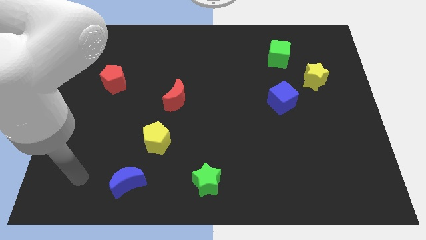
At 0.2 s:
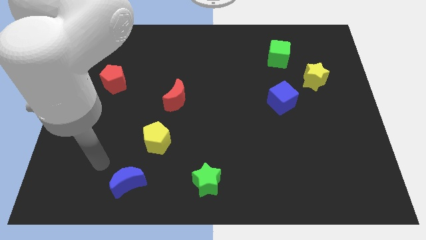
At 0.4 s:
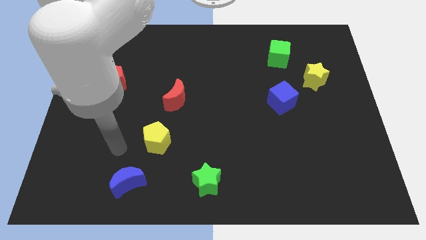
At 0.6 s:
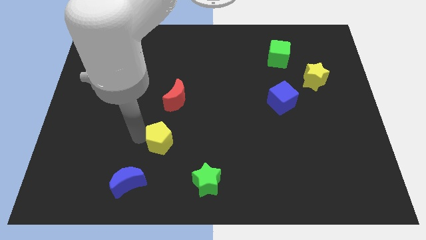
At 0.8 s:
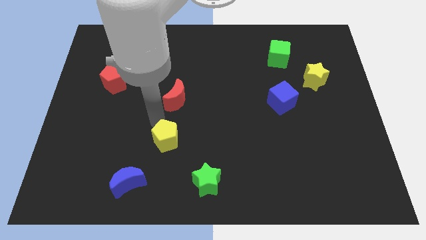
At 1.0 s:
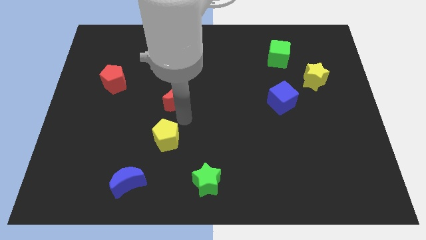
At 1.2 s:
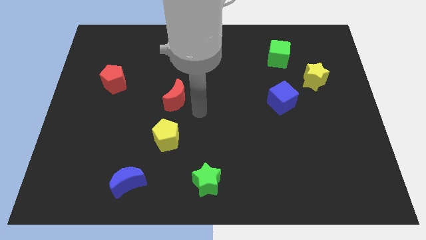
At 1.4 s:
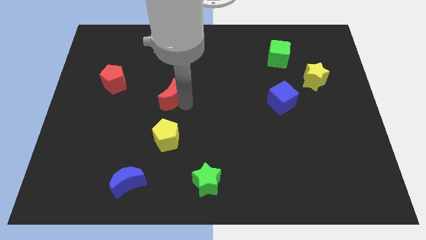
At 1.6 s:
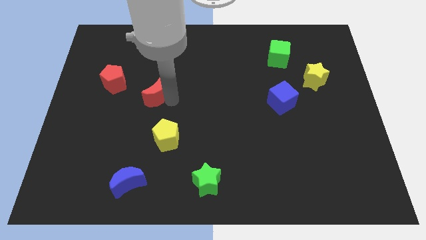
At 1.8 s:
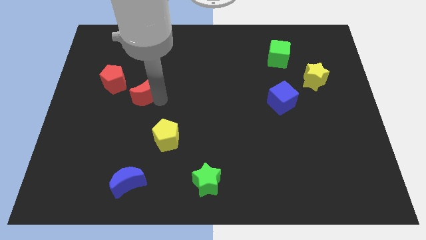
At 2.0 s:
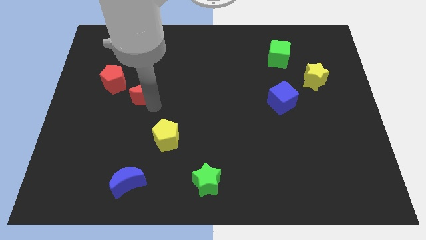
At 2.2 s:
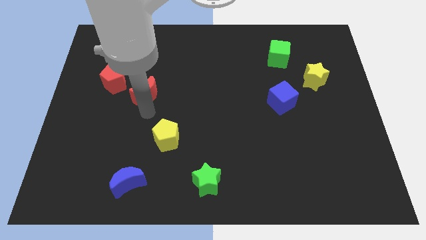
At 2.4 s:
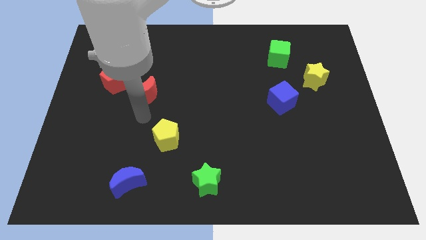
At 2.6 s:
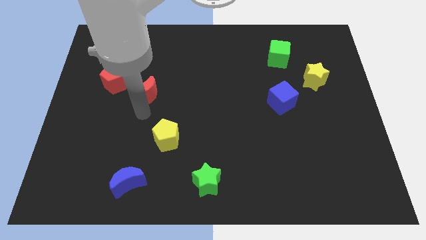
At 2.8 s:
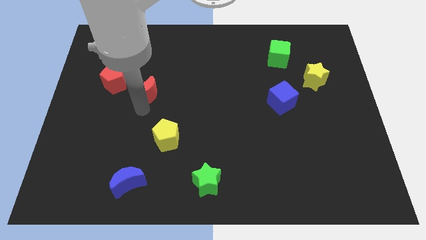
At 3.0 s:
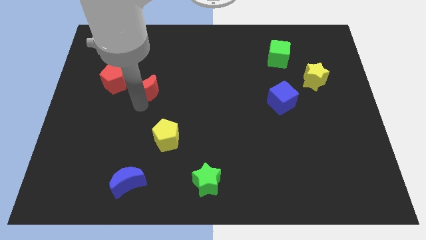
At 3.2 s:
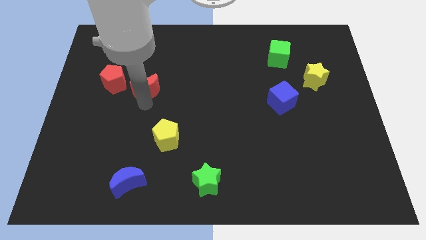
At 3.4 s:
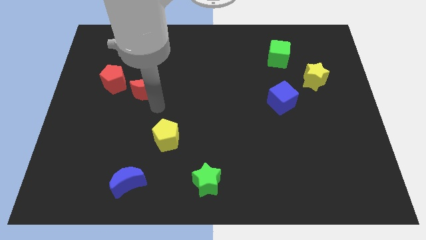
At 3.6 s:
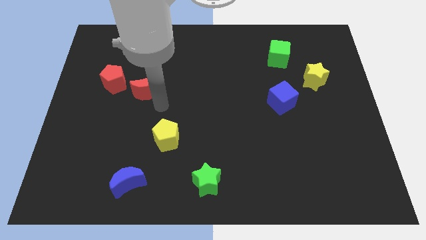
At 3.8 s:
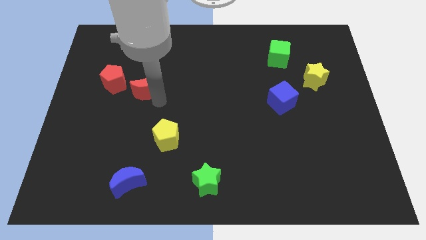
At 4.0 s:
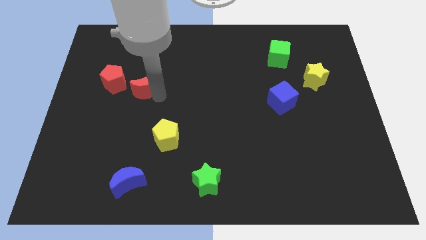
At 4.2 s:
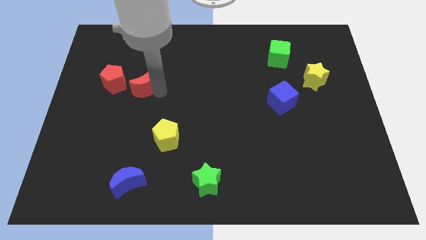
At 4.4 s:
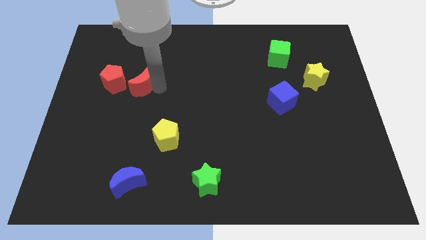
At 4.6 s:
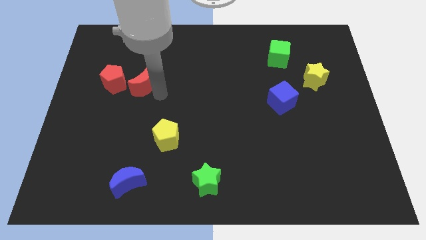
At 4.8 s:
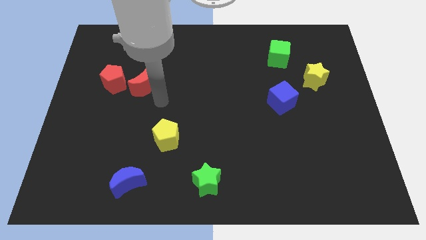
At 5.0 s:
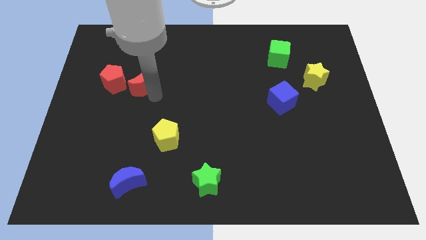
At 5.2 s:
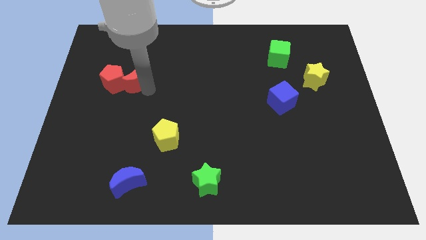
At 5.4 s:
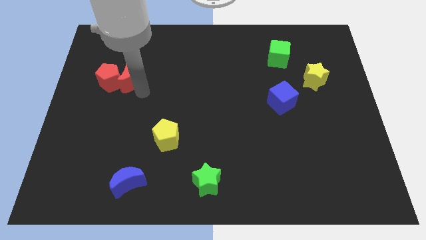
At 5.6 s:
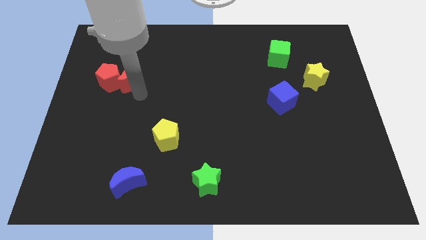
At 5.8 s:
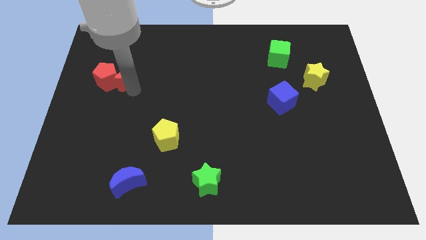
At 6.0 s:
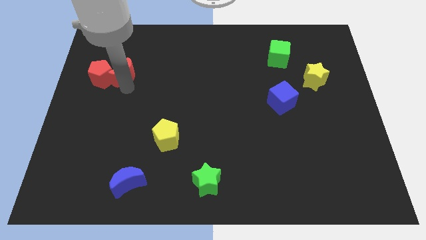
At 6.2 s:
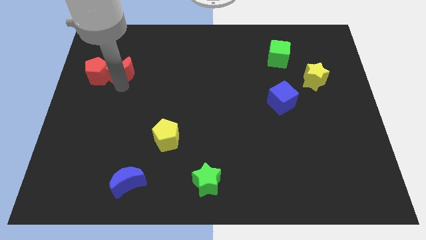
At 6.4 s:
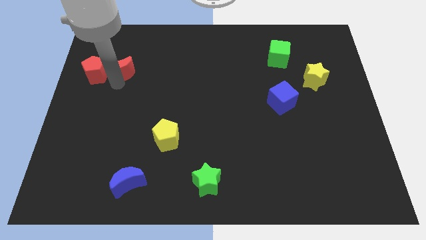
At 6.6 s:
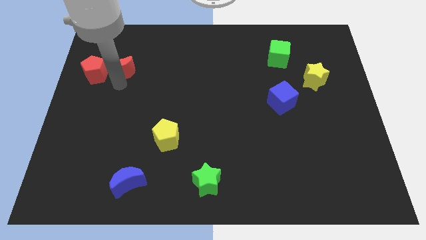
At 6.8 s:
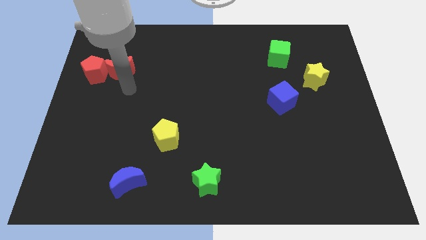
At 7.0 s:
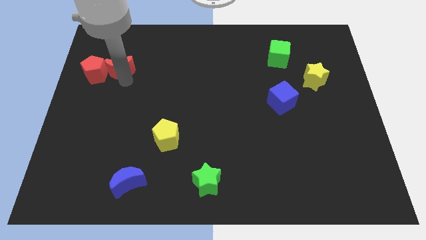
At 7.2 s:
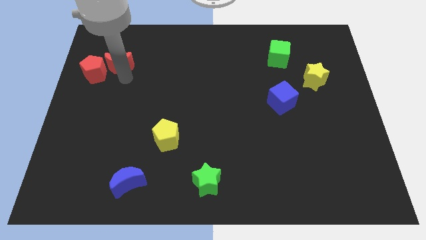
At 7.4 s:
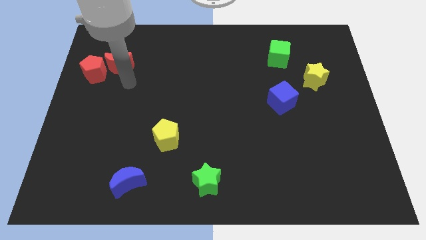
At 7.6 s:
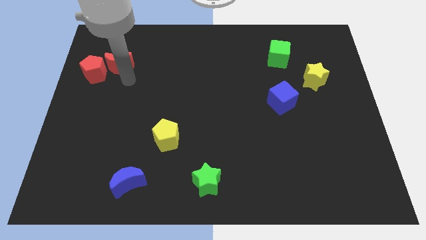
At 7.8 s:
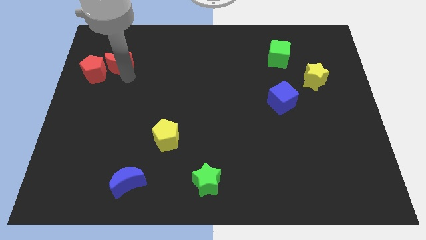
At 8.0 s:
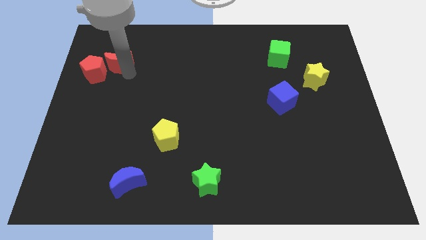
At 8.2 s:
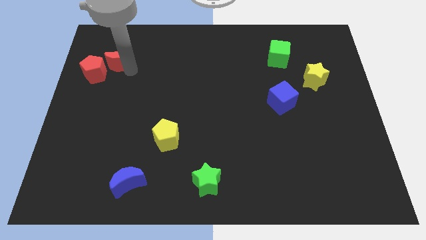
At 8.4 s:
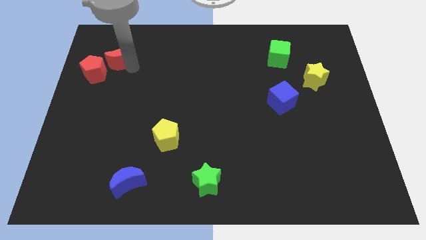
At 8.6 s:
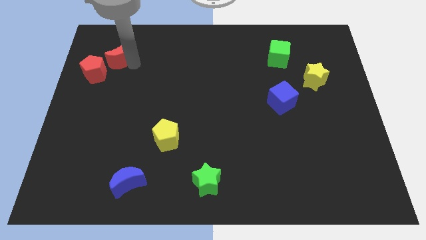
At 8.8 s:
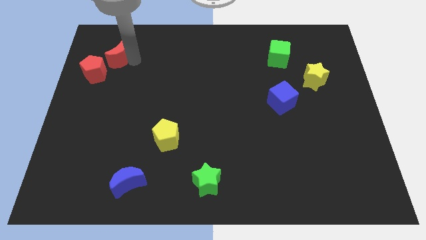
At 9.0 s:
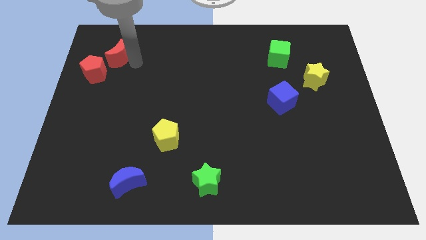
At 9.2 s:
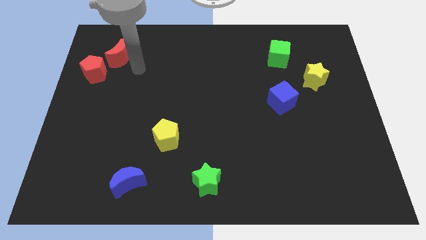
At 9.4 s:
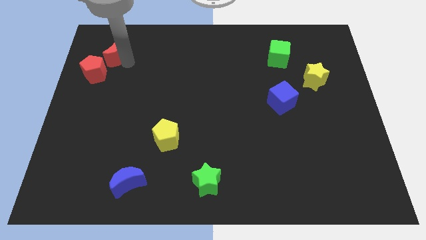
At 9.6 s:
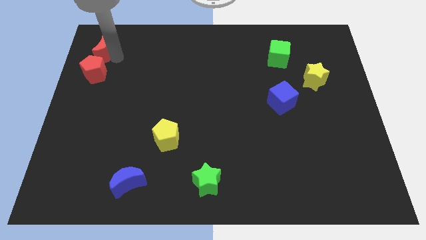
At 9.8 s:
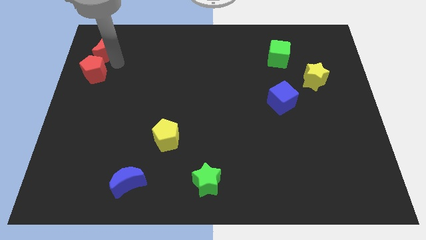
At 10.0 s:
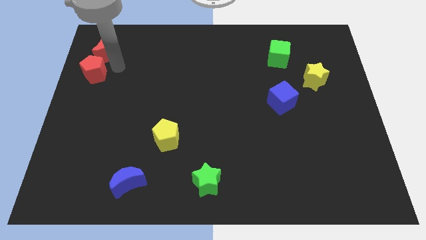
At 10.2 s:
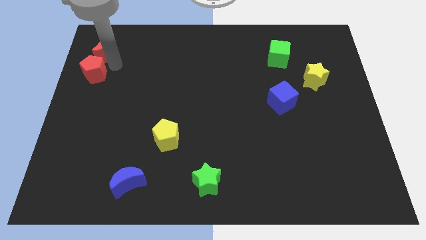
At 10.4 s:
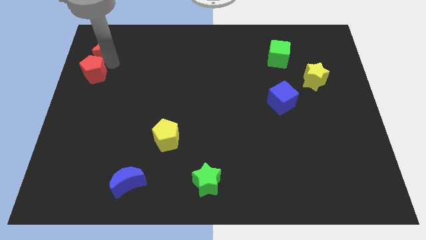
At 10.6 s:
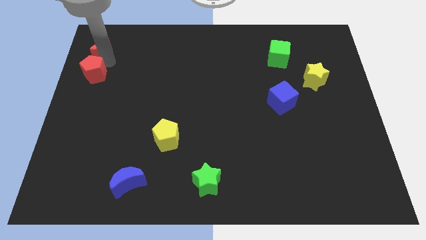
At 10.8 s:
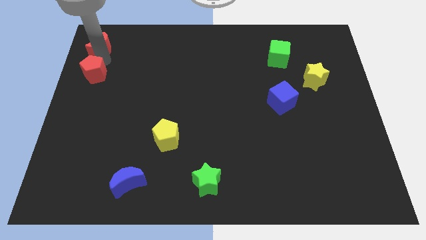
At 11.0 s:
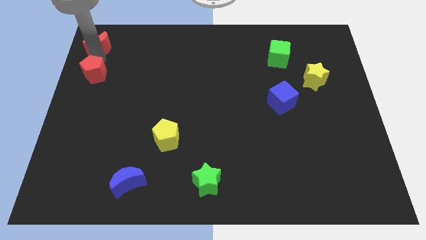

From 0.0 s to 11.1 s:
slide the red moon to the top left corner

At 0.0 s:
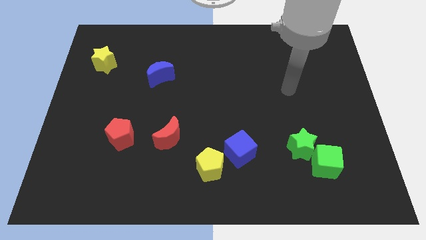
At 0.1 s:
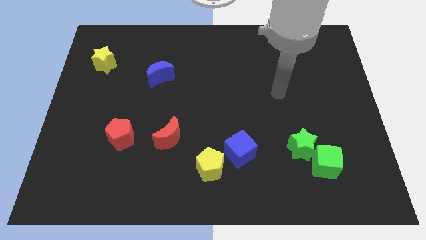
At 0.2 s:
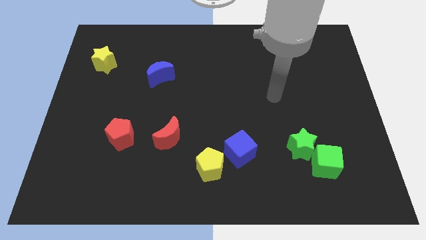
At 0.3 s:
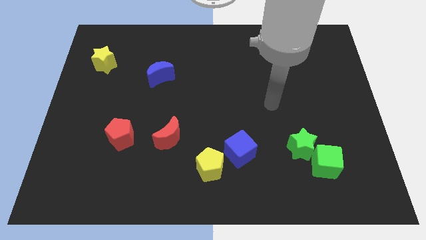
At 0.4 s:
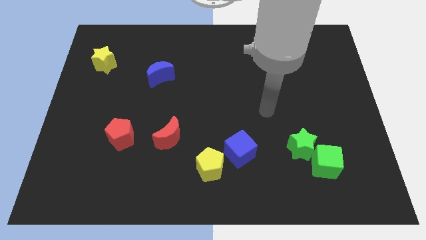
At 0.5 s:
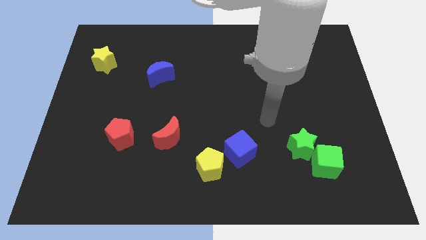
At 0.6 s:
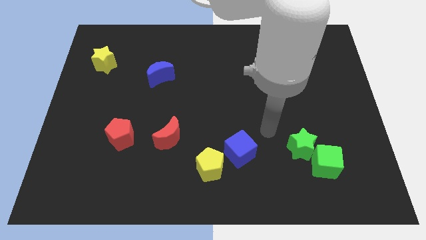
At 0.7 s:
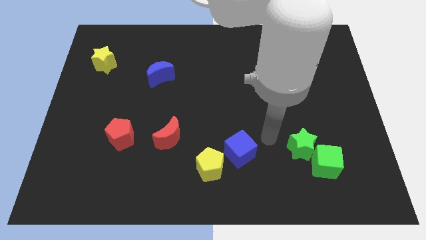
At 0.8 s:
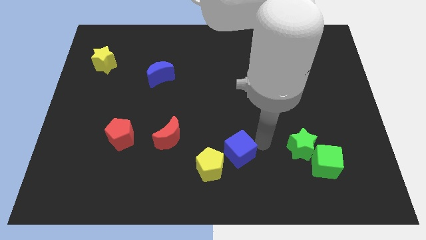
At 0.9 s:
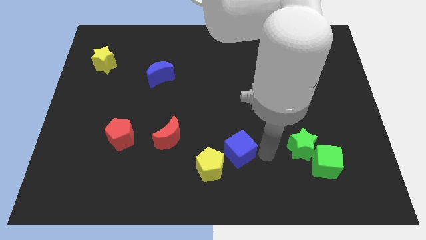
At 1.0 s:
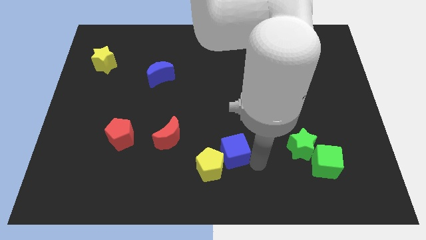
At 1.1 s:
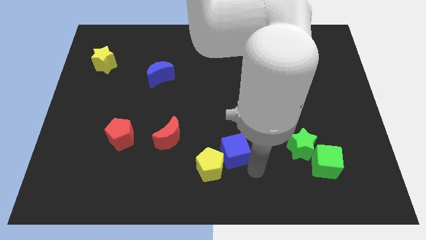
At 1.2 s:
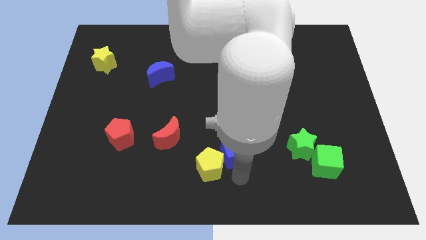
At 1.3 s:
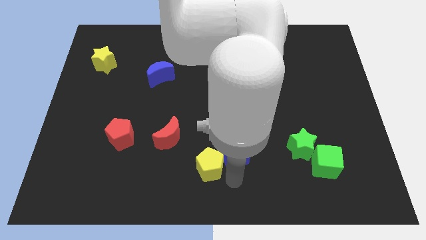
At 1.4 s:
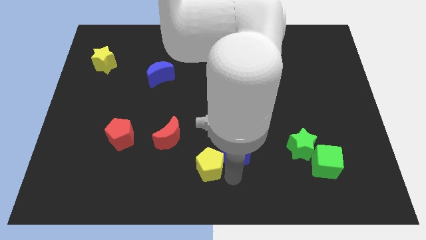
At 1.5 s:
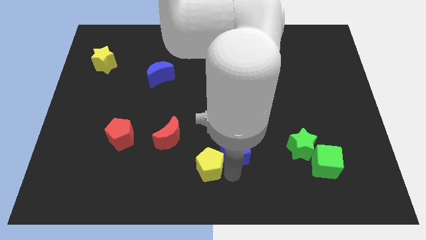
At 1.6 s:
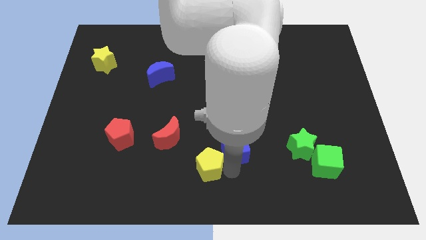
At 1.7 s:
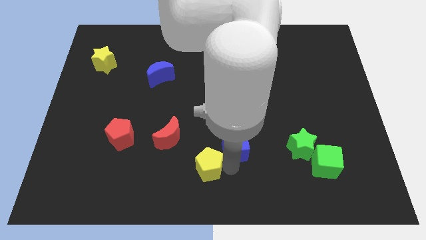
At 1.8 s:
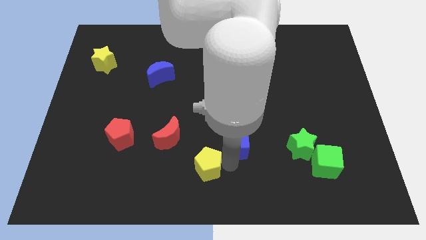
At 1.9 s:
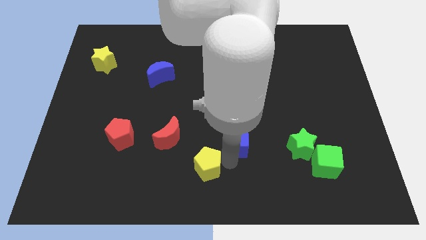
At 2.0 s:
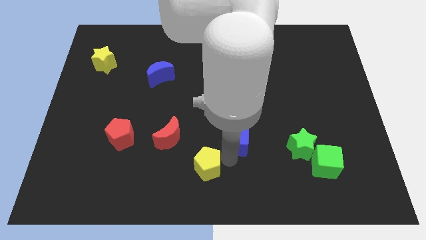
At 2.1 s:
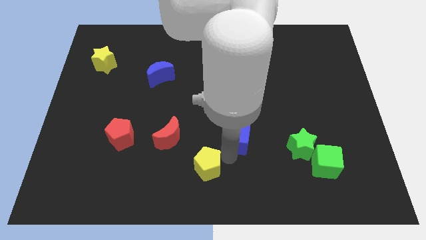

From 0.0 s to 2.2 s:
push the blue cube to the middle of the board
